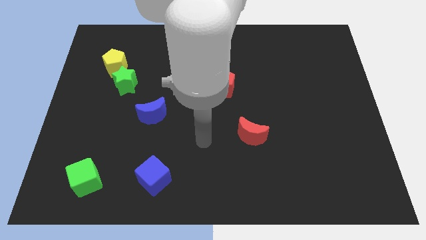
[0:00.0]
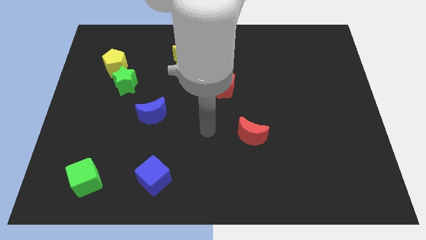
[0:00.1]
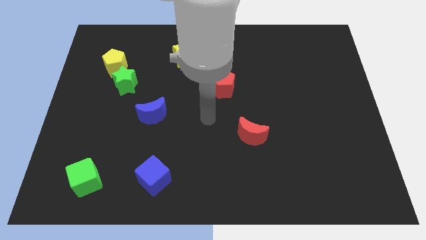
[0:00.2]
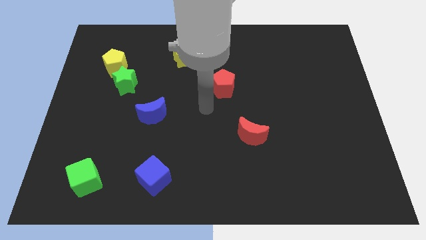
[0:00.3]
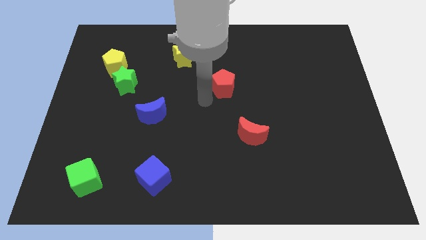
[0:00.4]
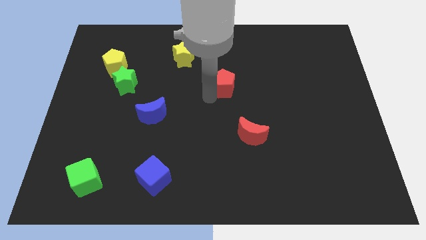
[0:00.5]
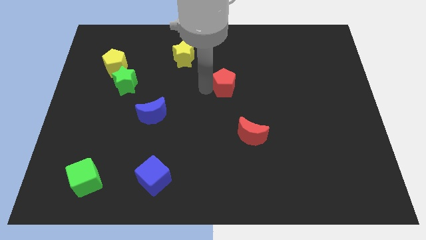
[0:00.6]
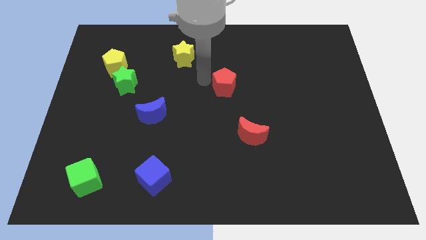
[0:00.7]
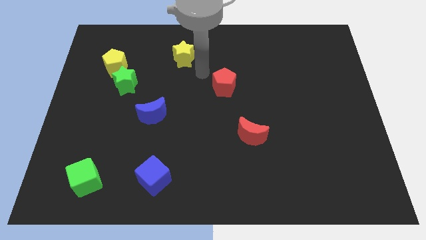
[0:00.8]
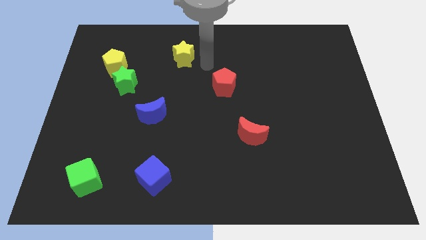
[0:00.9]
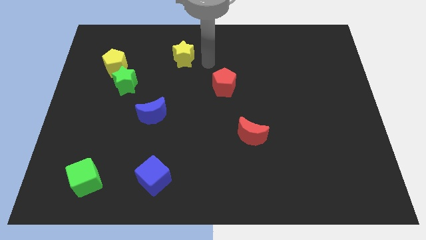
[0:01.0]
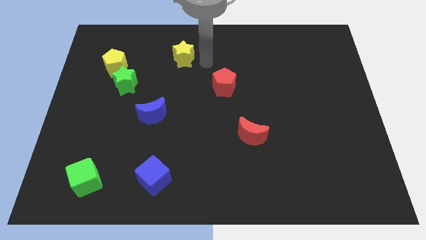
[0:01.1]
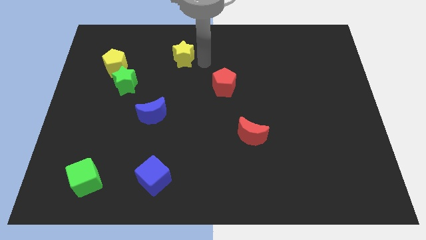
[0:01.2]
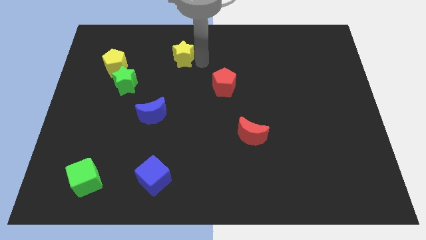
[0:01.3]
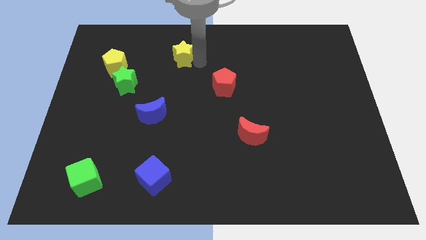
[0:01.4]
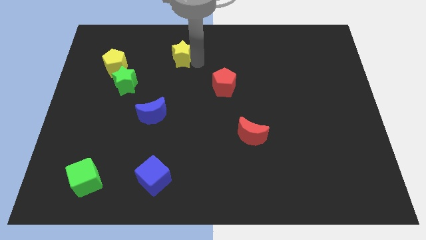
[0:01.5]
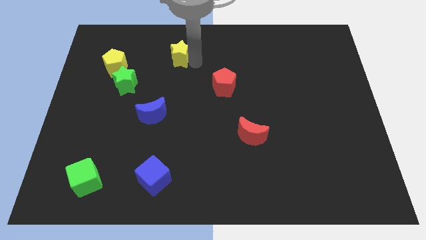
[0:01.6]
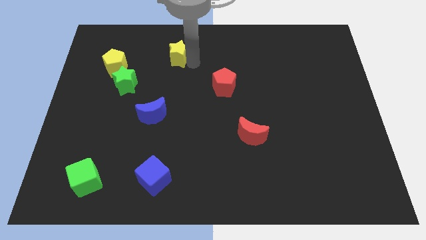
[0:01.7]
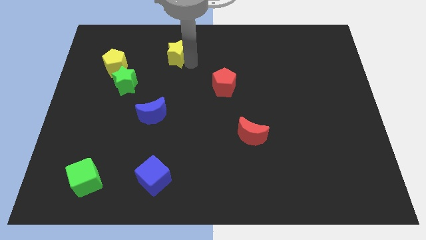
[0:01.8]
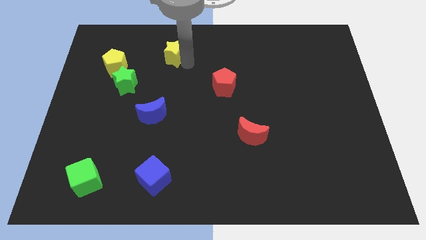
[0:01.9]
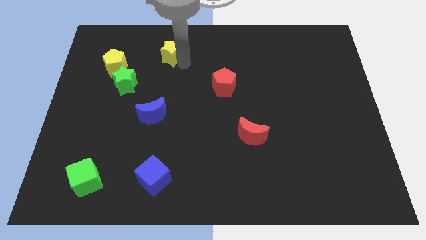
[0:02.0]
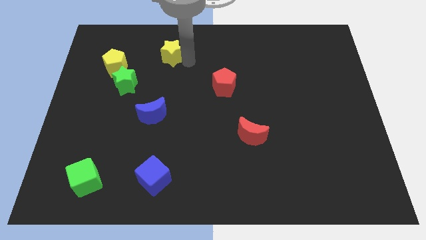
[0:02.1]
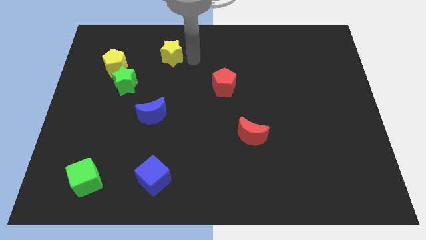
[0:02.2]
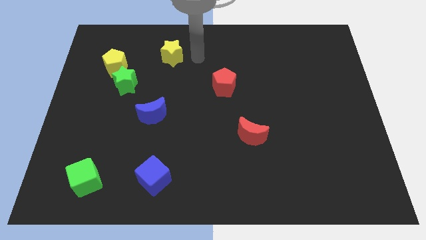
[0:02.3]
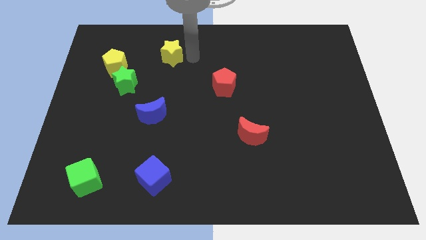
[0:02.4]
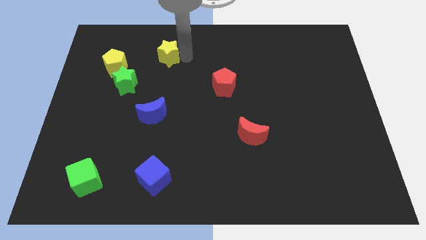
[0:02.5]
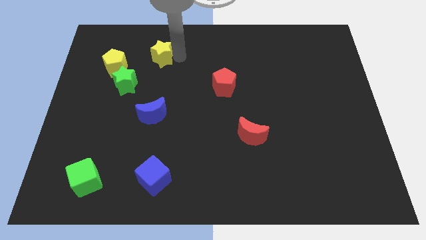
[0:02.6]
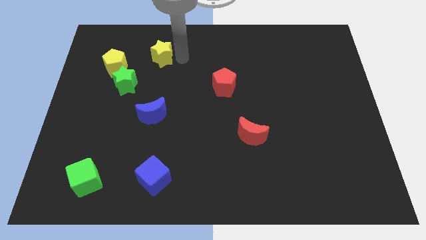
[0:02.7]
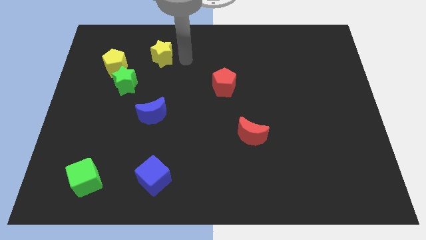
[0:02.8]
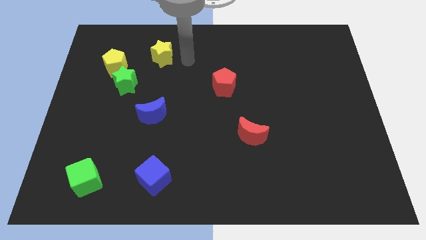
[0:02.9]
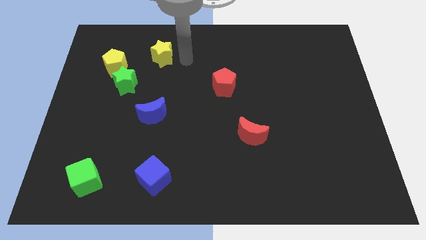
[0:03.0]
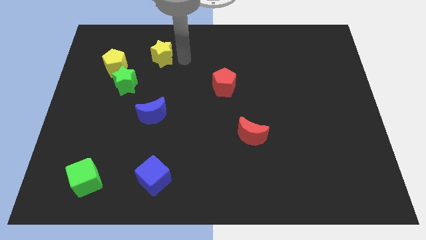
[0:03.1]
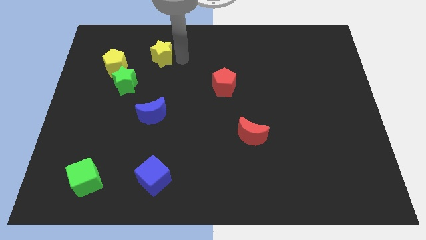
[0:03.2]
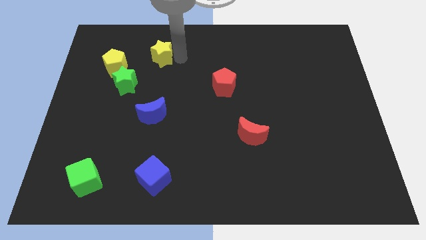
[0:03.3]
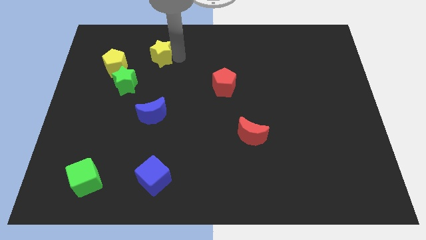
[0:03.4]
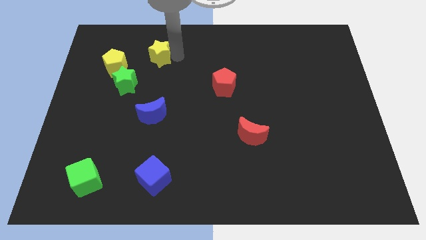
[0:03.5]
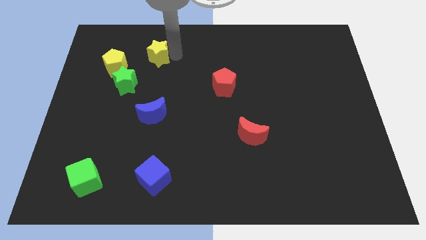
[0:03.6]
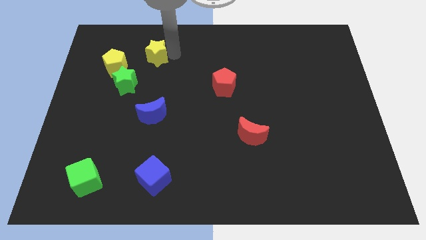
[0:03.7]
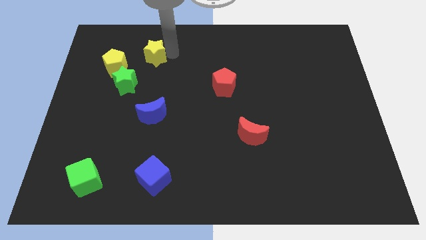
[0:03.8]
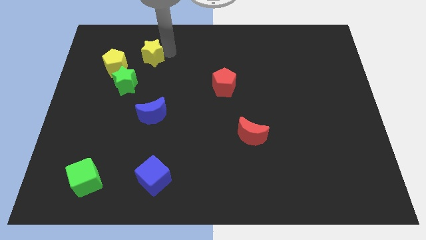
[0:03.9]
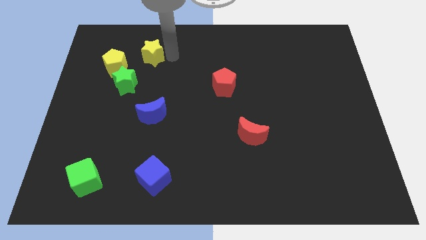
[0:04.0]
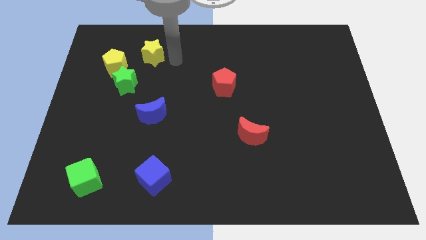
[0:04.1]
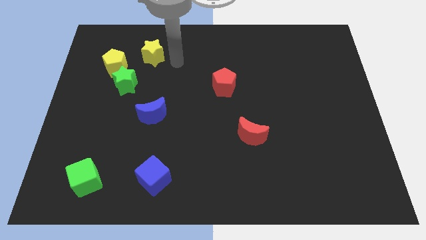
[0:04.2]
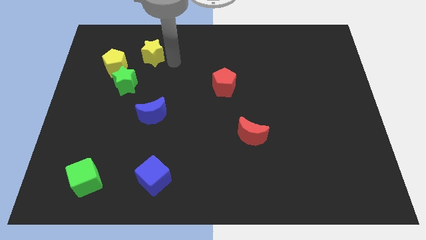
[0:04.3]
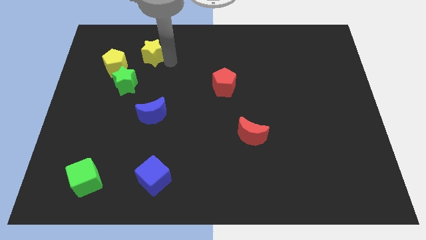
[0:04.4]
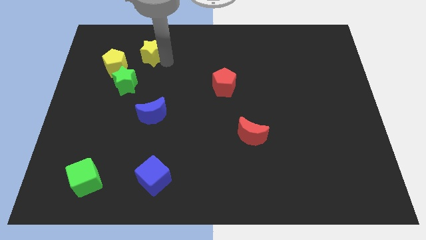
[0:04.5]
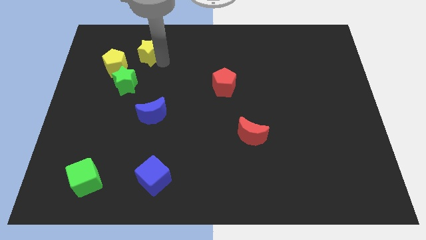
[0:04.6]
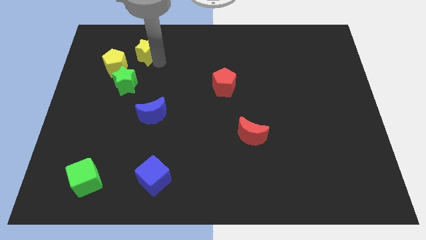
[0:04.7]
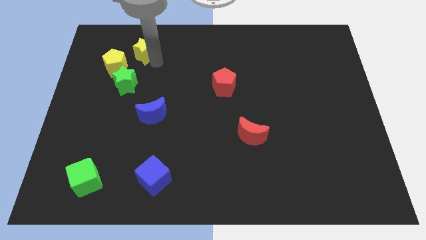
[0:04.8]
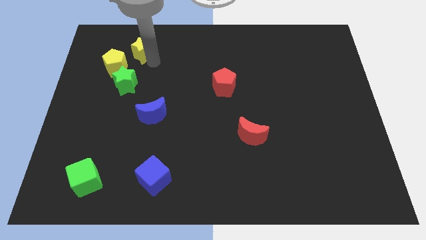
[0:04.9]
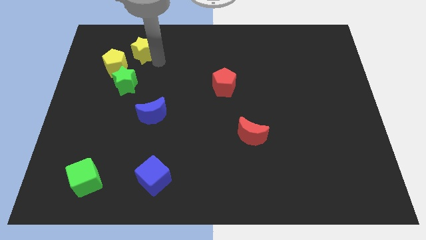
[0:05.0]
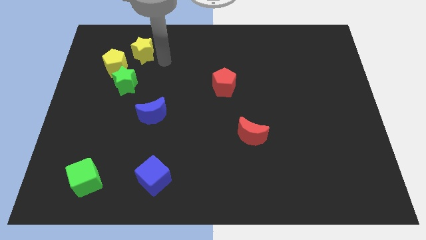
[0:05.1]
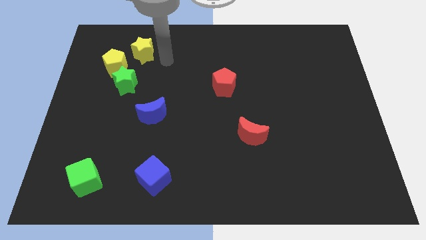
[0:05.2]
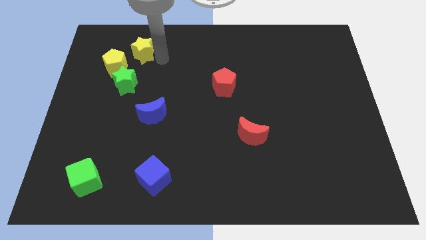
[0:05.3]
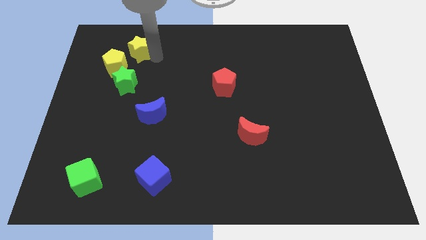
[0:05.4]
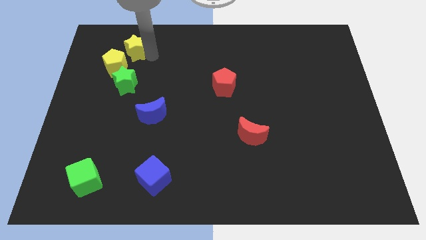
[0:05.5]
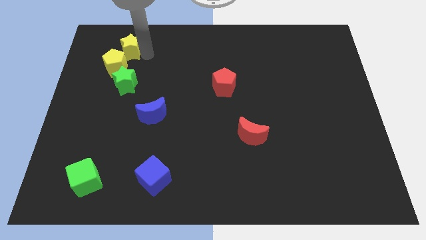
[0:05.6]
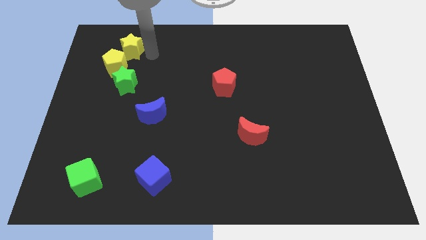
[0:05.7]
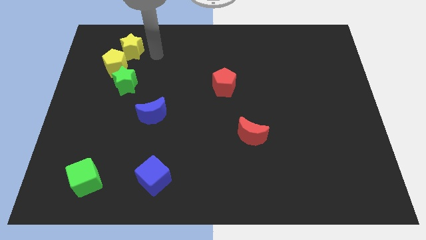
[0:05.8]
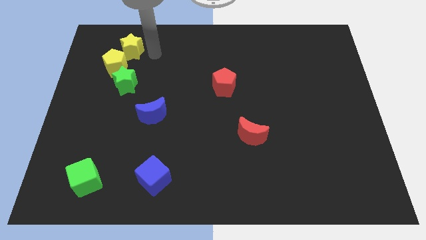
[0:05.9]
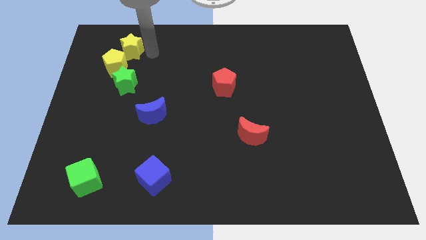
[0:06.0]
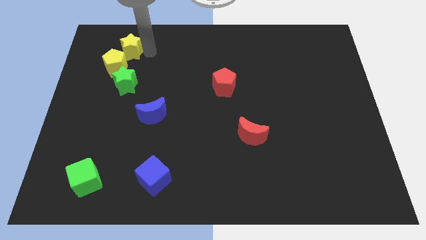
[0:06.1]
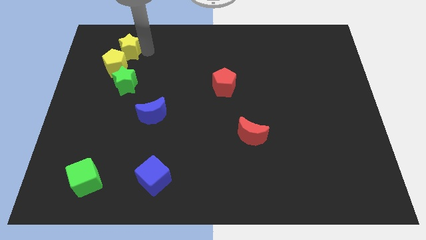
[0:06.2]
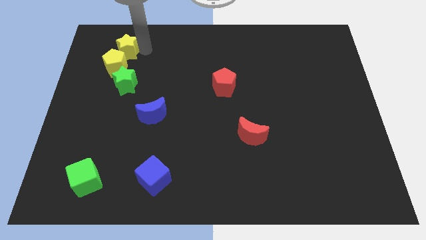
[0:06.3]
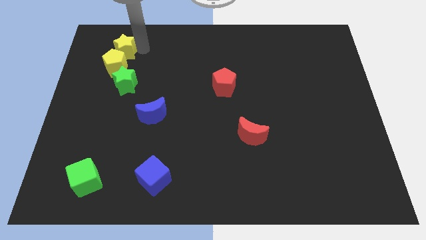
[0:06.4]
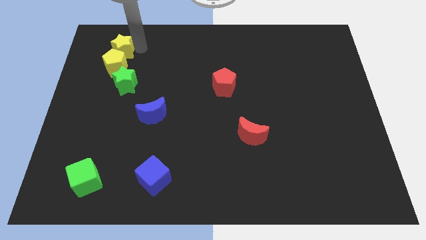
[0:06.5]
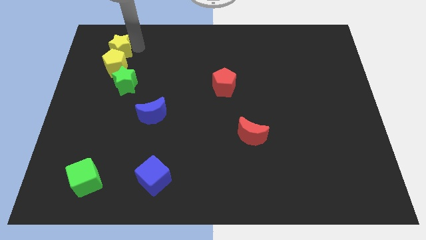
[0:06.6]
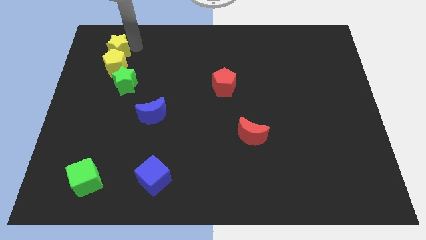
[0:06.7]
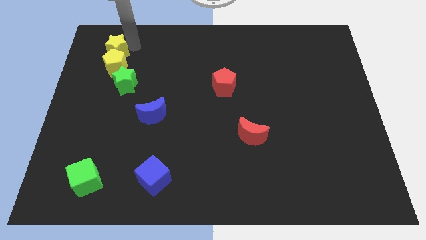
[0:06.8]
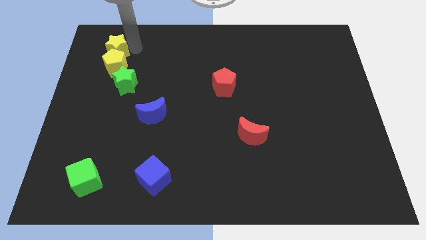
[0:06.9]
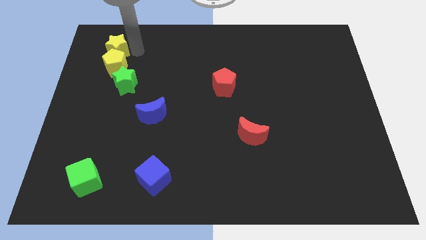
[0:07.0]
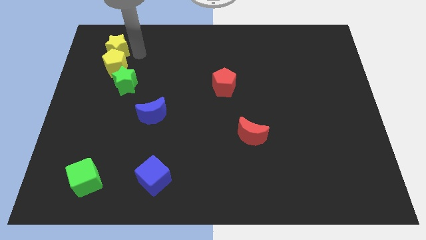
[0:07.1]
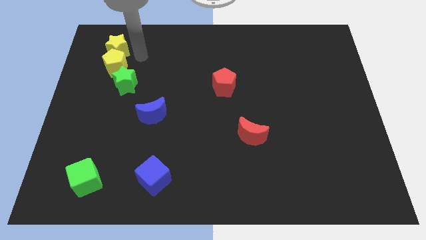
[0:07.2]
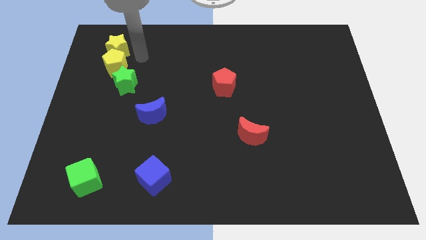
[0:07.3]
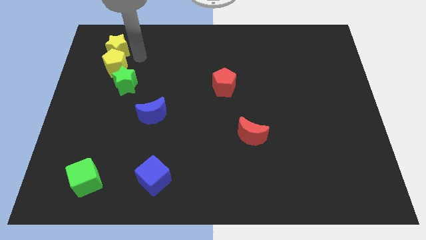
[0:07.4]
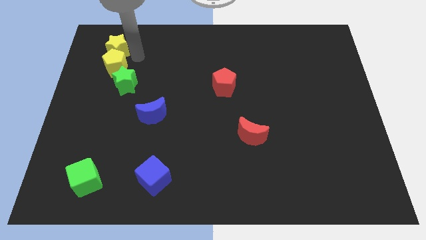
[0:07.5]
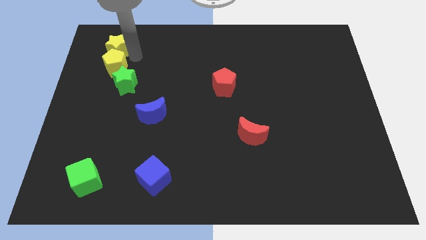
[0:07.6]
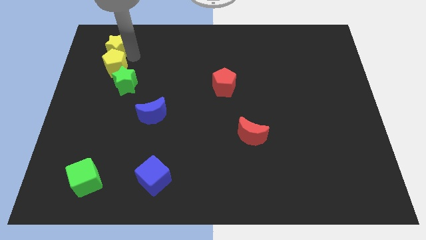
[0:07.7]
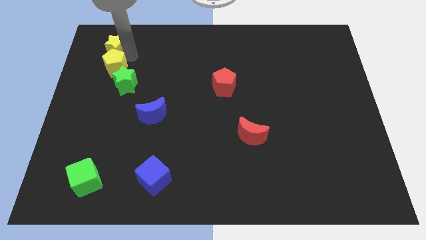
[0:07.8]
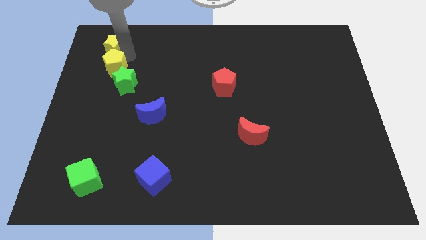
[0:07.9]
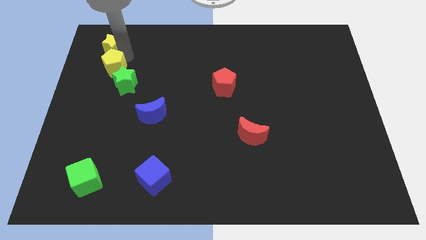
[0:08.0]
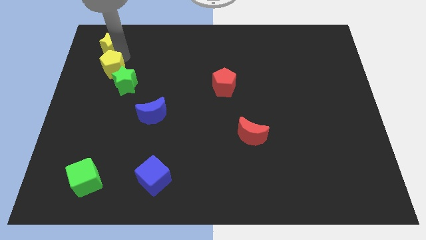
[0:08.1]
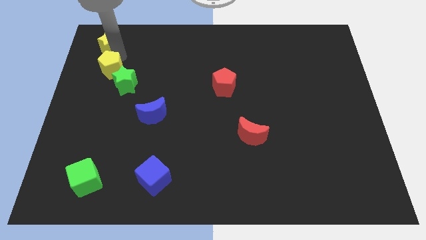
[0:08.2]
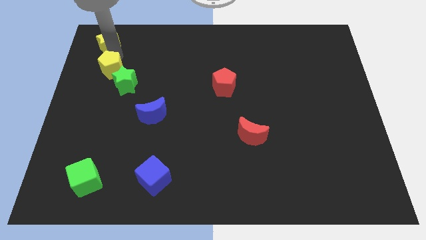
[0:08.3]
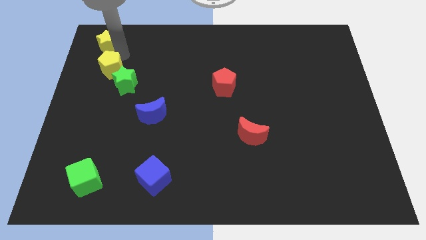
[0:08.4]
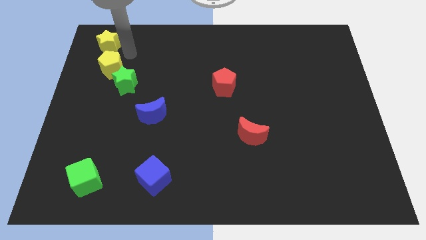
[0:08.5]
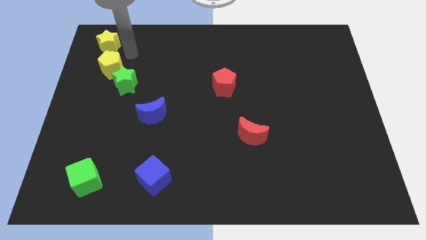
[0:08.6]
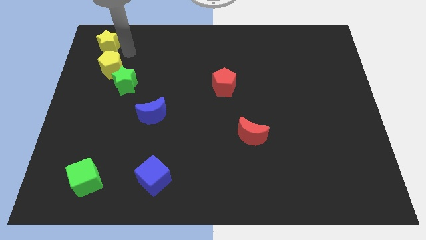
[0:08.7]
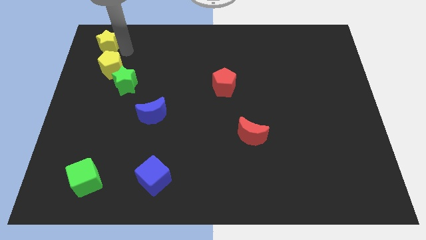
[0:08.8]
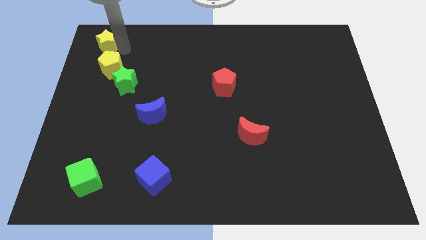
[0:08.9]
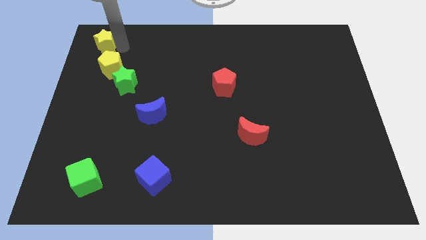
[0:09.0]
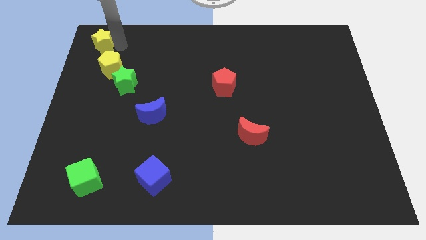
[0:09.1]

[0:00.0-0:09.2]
move the yellow star to the top left corner
